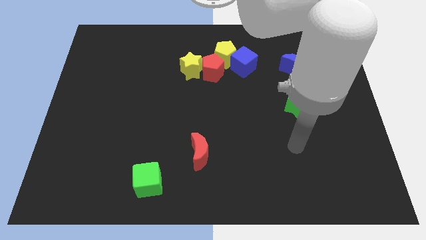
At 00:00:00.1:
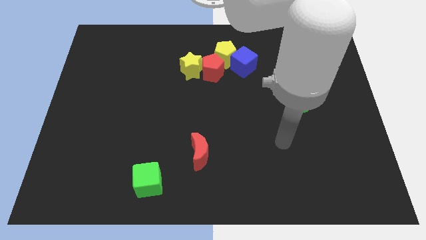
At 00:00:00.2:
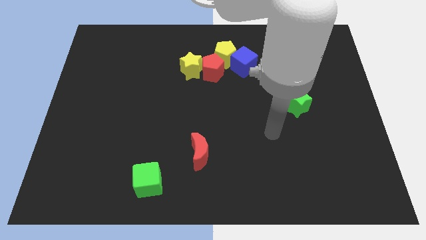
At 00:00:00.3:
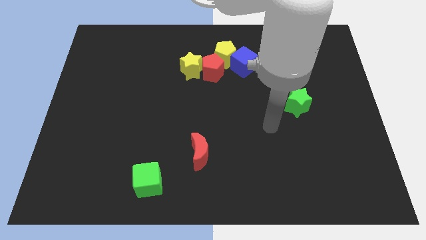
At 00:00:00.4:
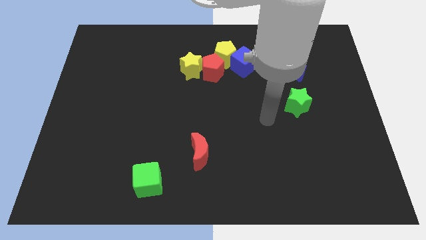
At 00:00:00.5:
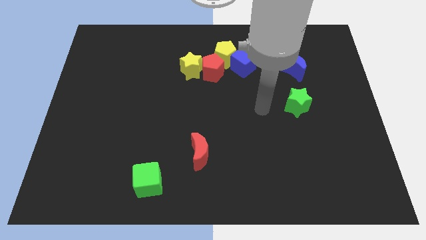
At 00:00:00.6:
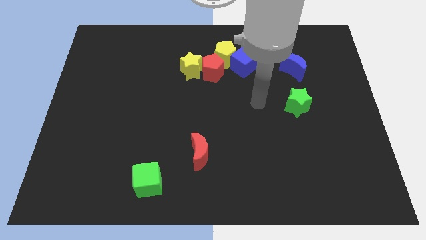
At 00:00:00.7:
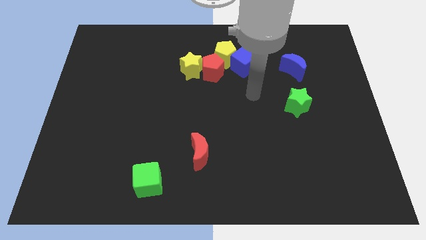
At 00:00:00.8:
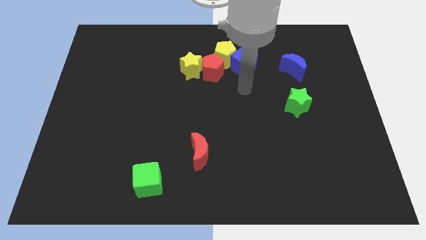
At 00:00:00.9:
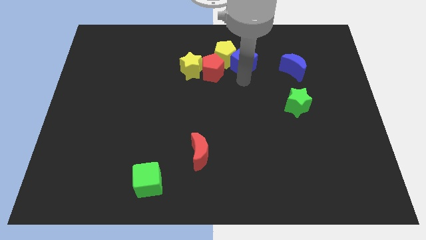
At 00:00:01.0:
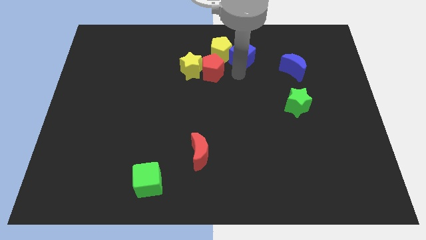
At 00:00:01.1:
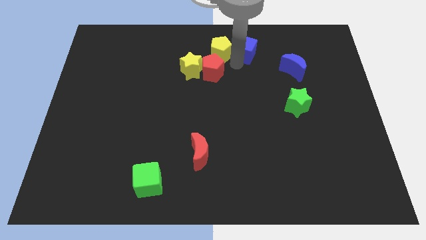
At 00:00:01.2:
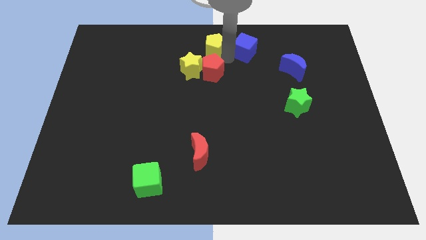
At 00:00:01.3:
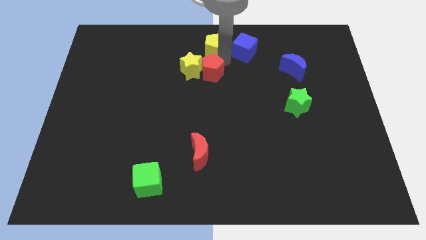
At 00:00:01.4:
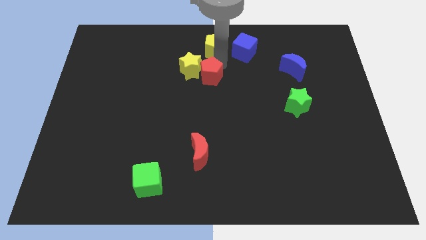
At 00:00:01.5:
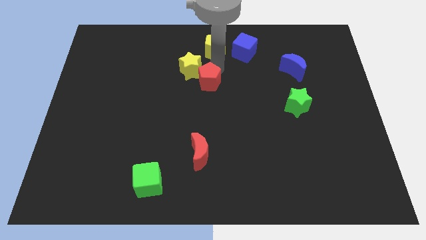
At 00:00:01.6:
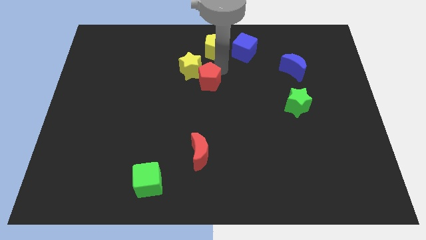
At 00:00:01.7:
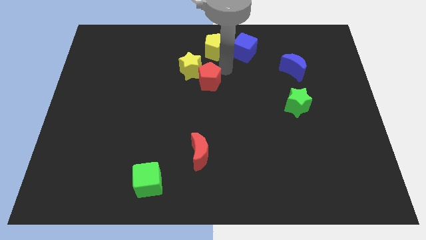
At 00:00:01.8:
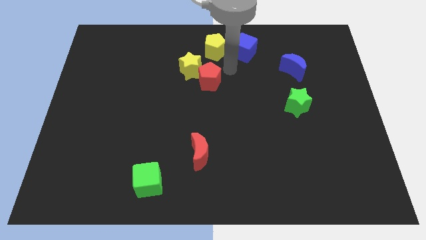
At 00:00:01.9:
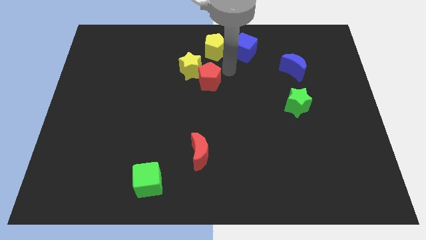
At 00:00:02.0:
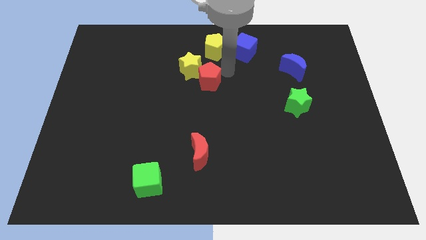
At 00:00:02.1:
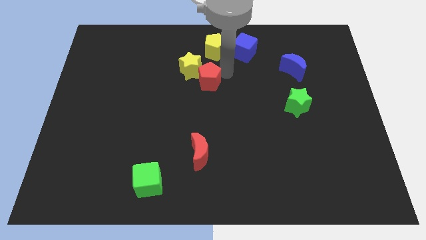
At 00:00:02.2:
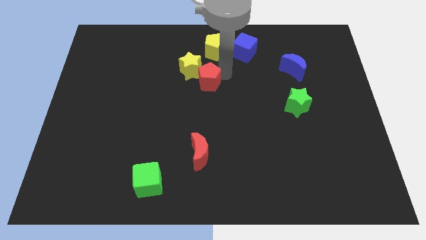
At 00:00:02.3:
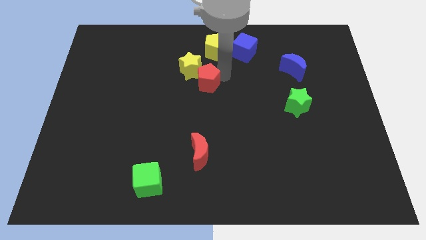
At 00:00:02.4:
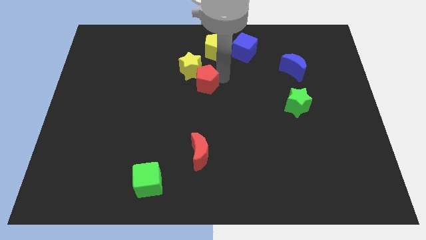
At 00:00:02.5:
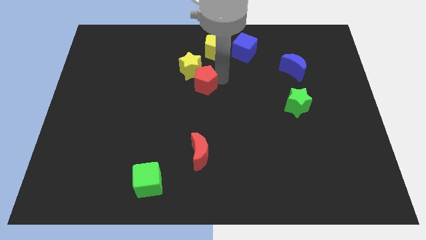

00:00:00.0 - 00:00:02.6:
separate the red pentagon from the yellow star, yellow pentagon, and blue cube

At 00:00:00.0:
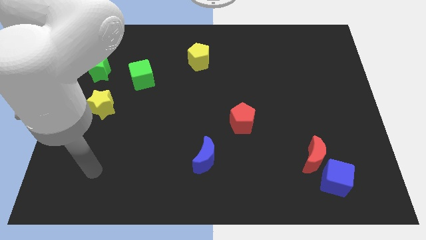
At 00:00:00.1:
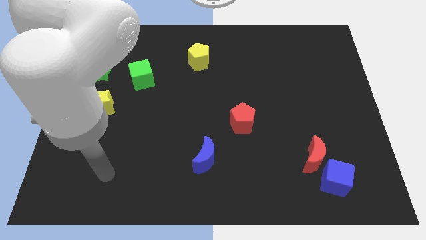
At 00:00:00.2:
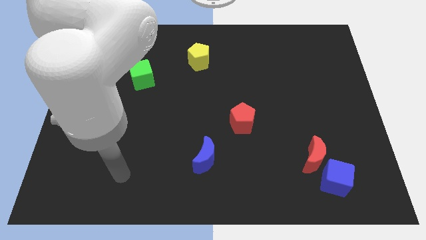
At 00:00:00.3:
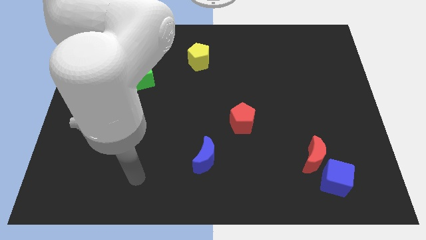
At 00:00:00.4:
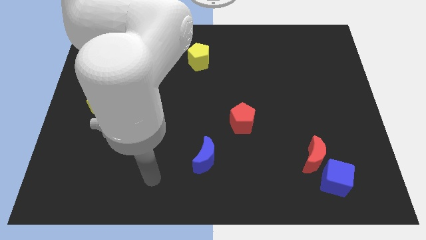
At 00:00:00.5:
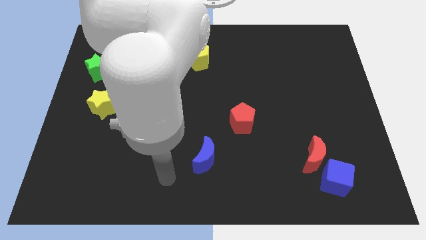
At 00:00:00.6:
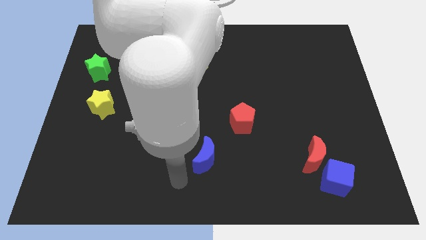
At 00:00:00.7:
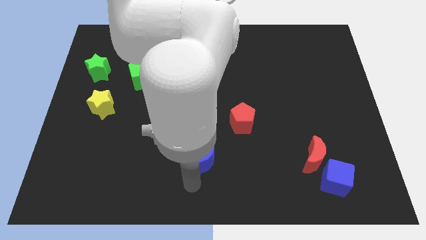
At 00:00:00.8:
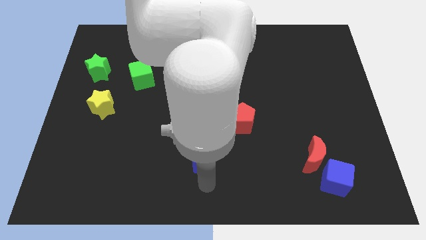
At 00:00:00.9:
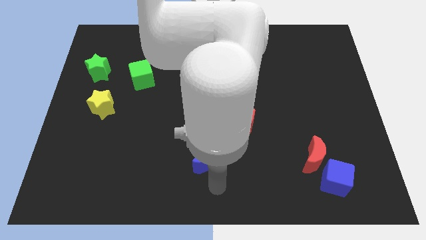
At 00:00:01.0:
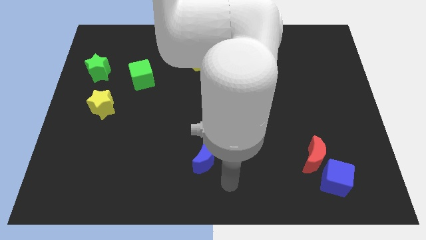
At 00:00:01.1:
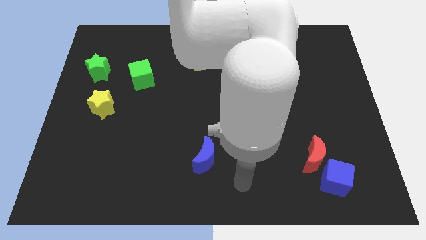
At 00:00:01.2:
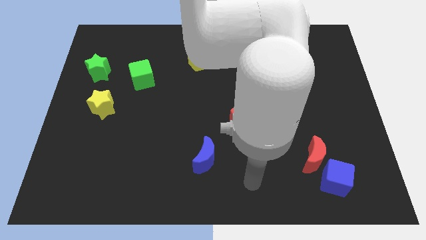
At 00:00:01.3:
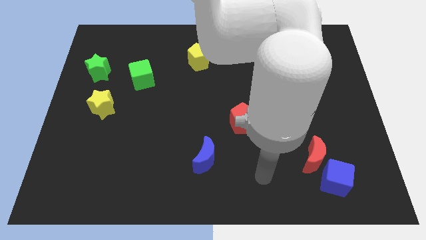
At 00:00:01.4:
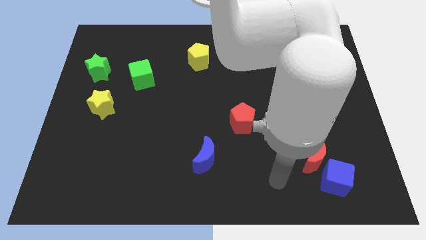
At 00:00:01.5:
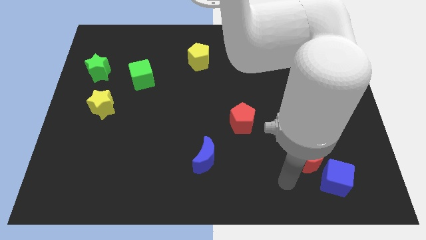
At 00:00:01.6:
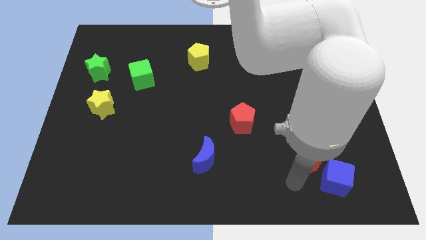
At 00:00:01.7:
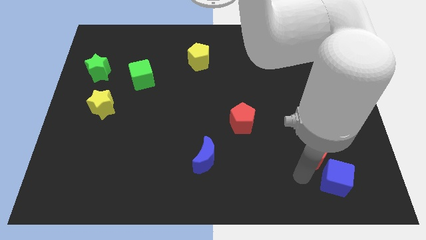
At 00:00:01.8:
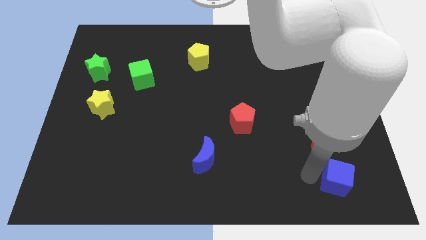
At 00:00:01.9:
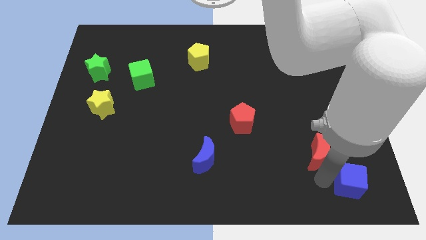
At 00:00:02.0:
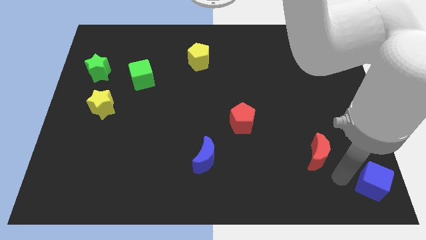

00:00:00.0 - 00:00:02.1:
pull the red moon apart from the blue cube

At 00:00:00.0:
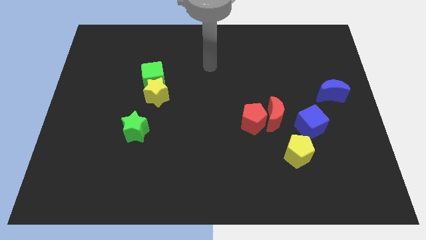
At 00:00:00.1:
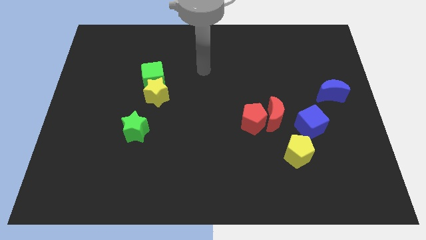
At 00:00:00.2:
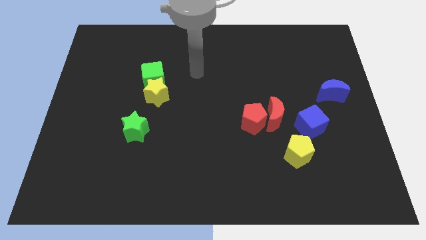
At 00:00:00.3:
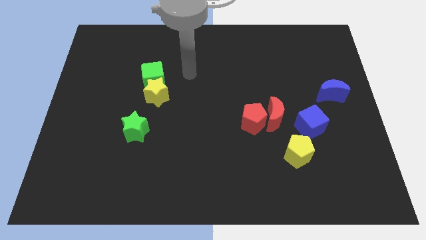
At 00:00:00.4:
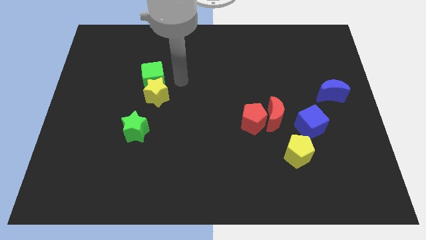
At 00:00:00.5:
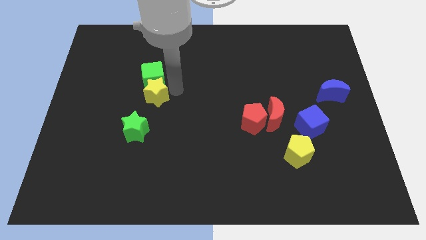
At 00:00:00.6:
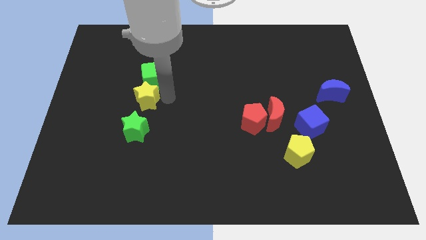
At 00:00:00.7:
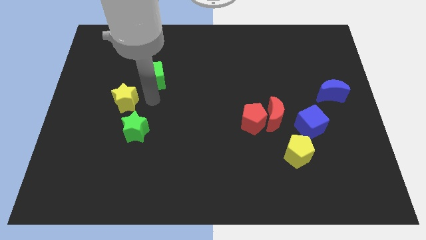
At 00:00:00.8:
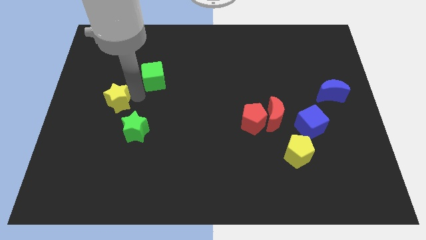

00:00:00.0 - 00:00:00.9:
move the green cube away from the yellow star

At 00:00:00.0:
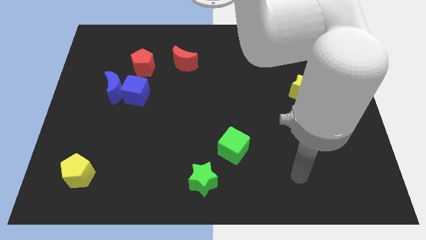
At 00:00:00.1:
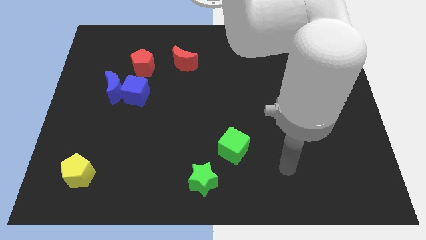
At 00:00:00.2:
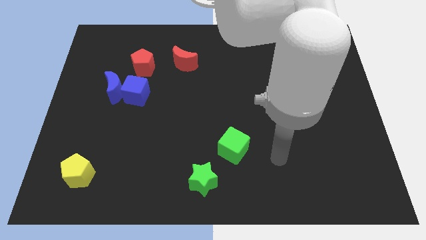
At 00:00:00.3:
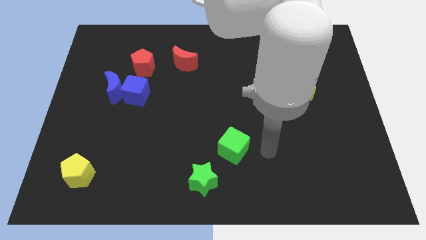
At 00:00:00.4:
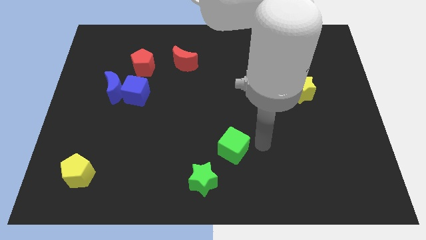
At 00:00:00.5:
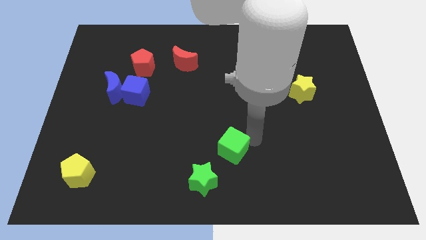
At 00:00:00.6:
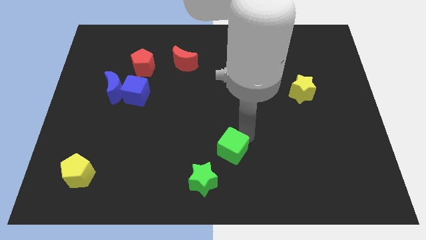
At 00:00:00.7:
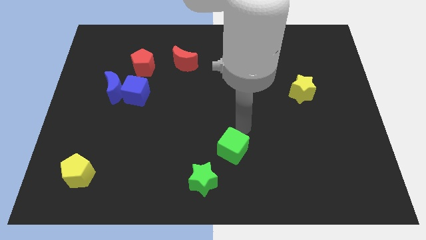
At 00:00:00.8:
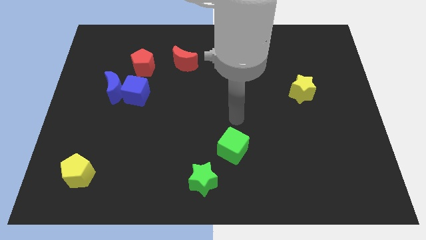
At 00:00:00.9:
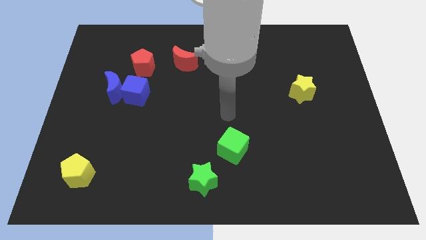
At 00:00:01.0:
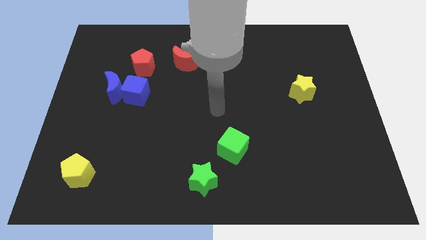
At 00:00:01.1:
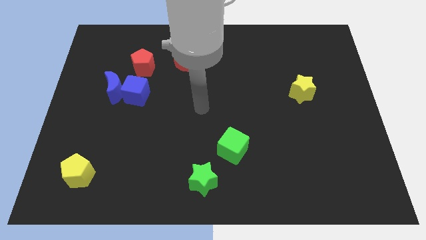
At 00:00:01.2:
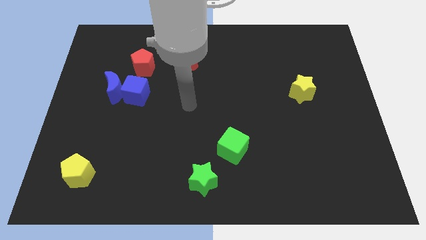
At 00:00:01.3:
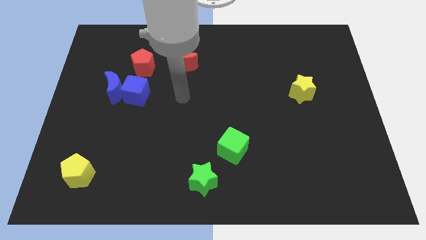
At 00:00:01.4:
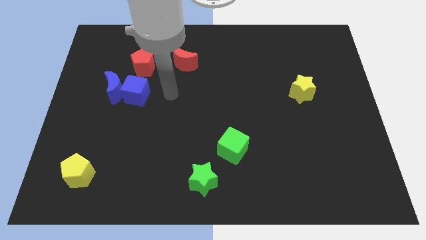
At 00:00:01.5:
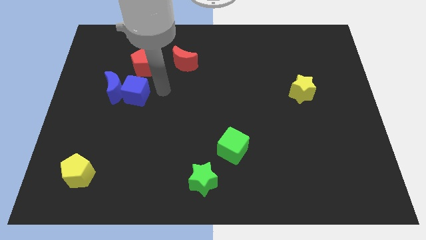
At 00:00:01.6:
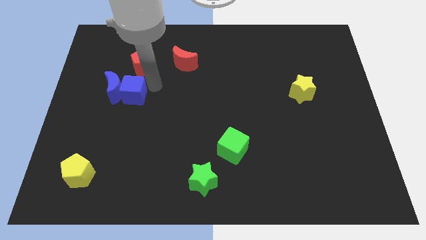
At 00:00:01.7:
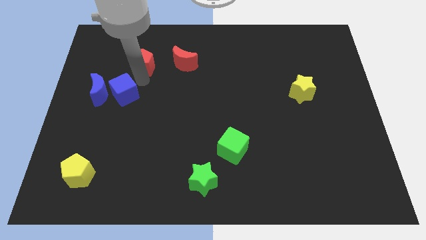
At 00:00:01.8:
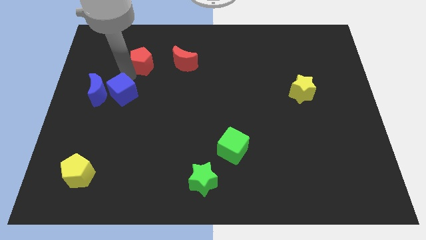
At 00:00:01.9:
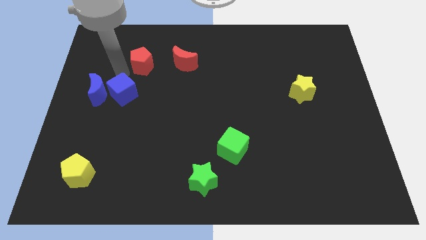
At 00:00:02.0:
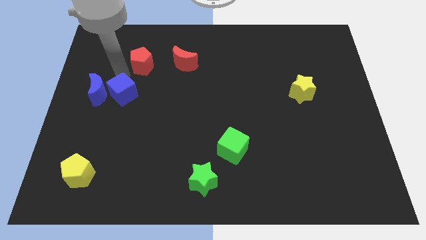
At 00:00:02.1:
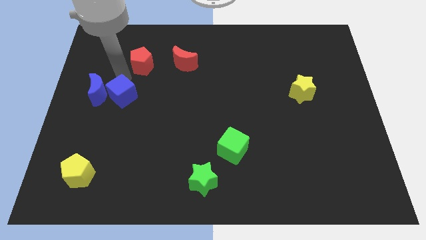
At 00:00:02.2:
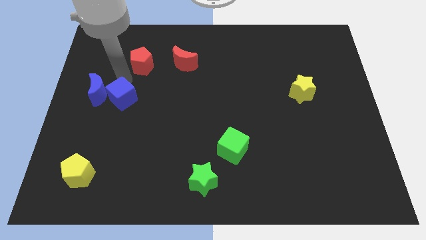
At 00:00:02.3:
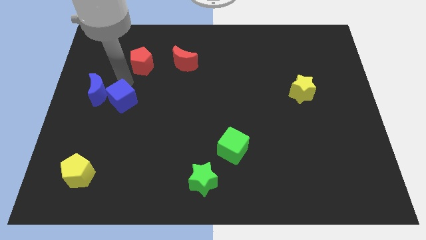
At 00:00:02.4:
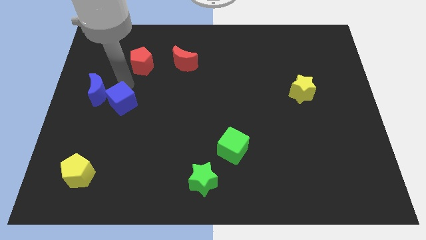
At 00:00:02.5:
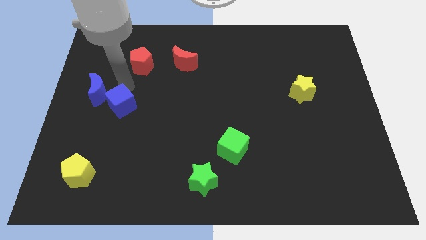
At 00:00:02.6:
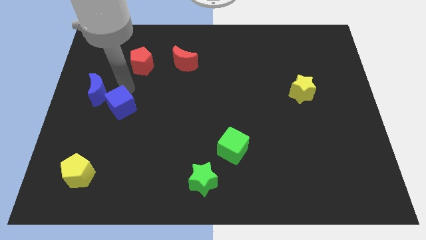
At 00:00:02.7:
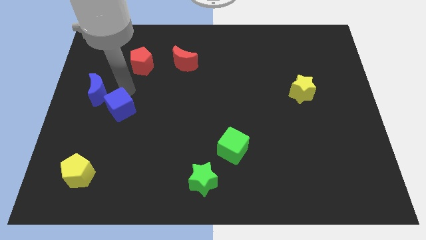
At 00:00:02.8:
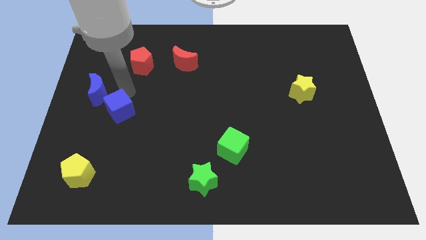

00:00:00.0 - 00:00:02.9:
move the blue cube away from the blue moon and red pentagon

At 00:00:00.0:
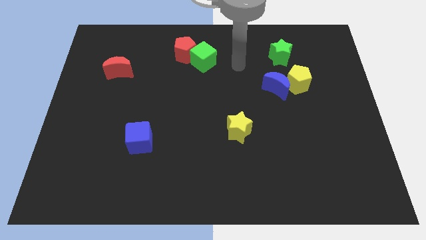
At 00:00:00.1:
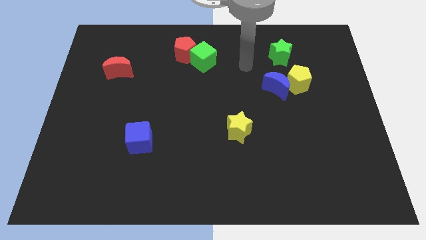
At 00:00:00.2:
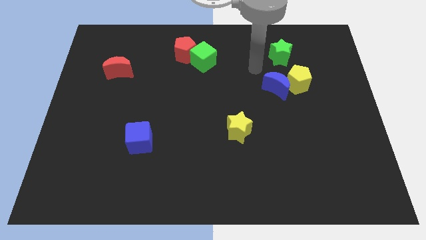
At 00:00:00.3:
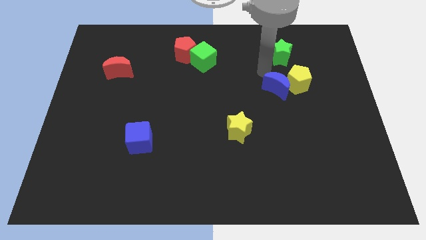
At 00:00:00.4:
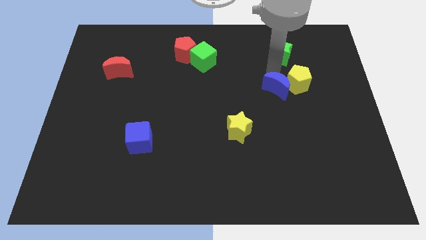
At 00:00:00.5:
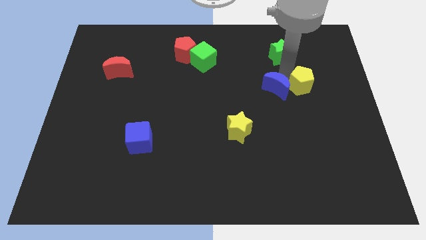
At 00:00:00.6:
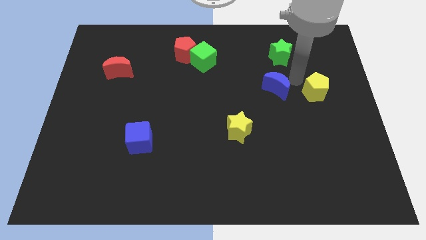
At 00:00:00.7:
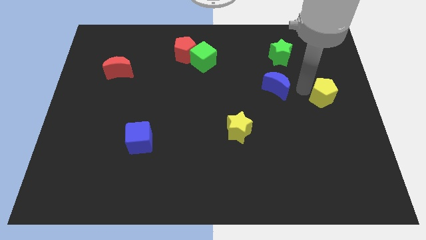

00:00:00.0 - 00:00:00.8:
pull the blue moon apart from the yellow pentagon
